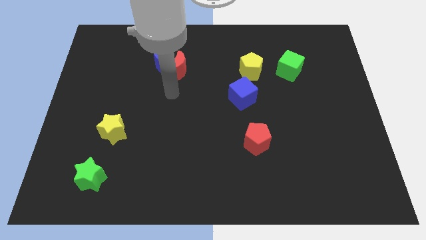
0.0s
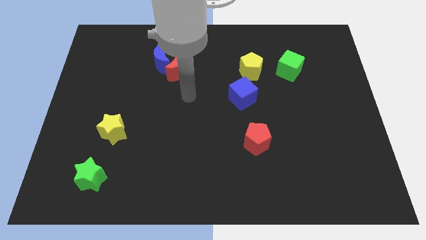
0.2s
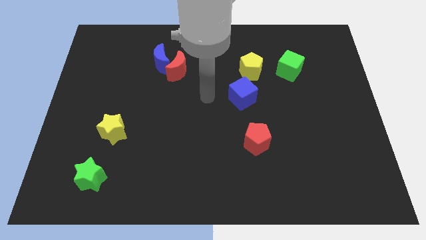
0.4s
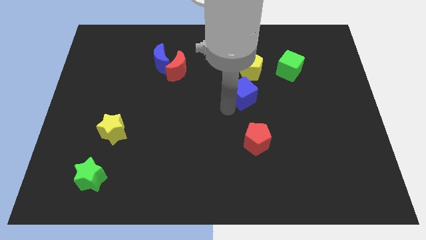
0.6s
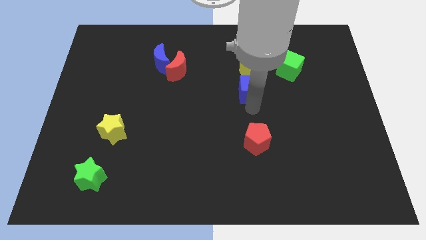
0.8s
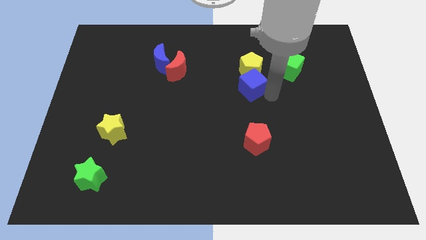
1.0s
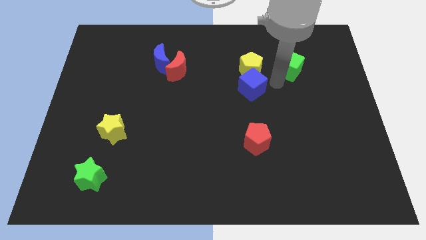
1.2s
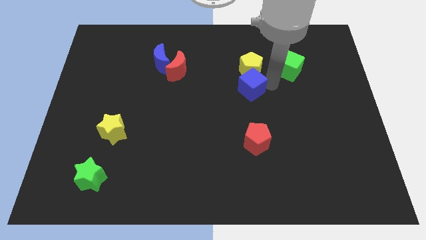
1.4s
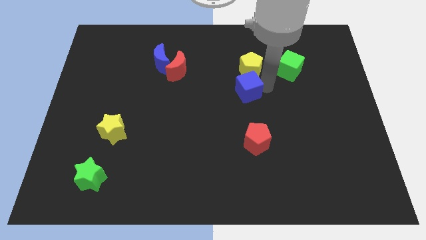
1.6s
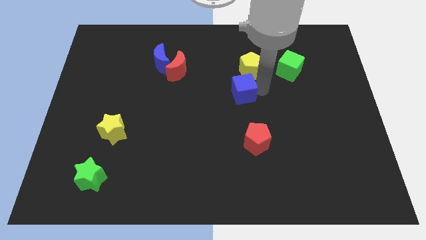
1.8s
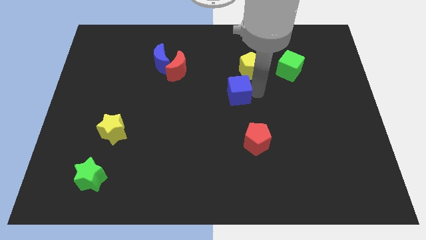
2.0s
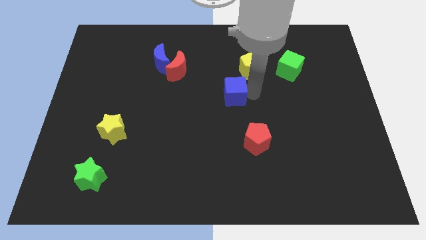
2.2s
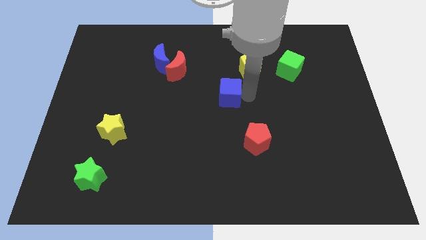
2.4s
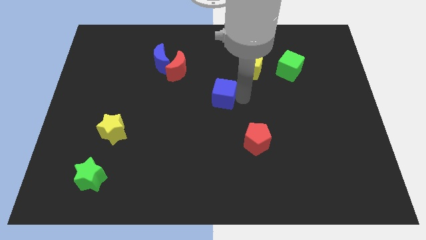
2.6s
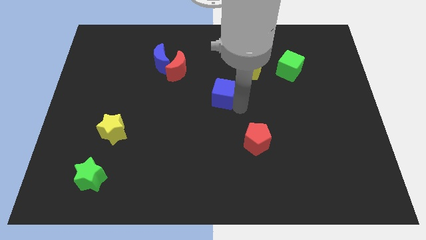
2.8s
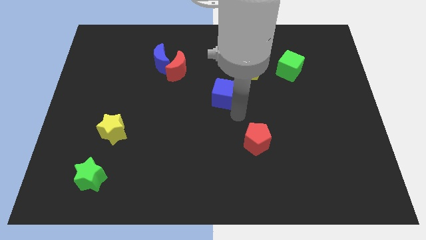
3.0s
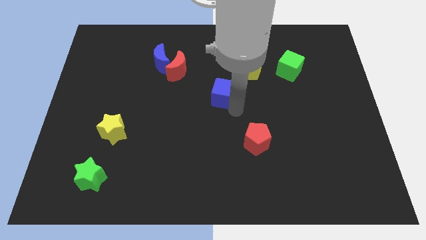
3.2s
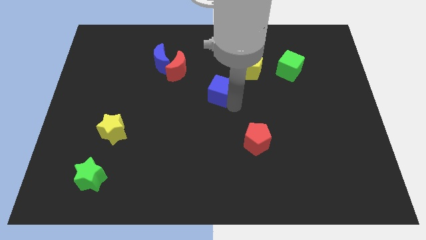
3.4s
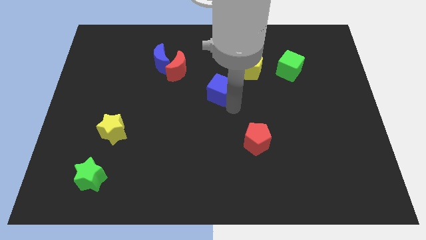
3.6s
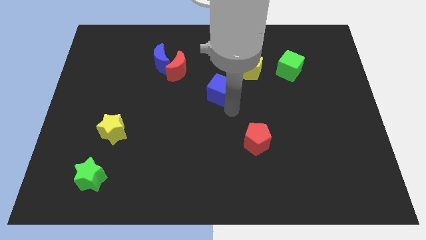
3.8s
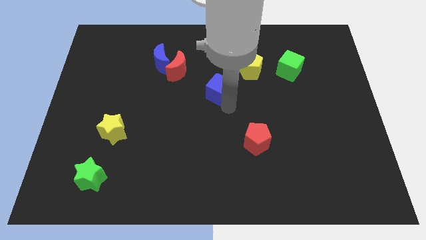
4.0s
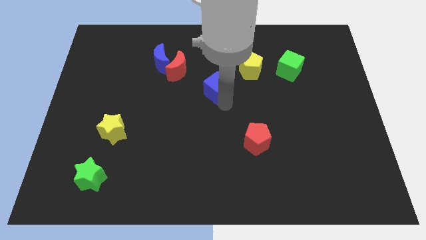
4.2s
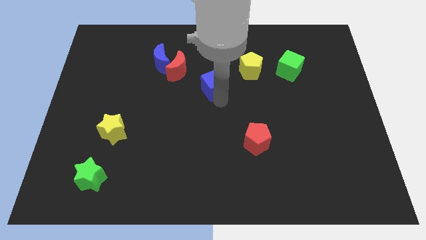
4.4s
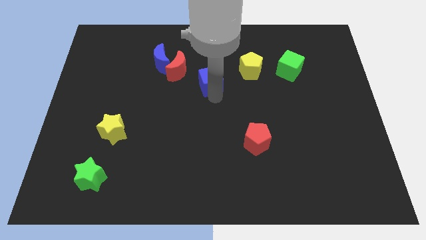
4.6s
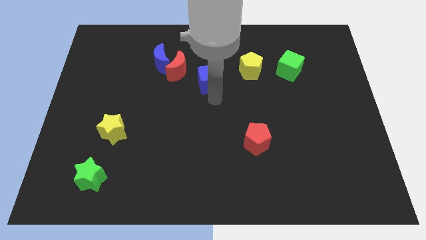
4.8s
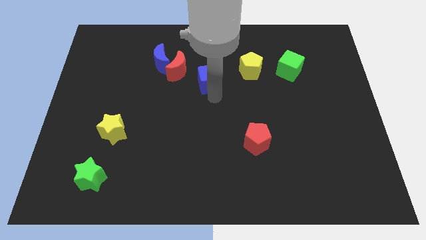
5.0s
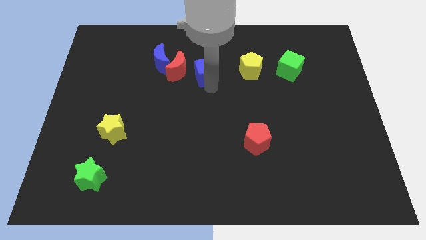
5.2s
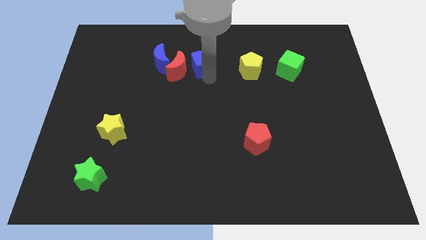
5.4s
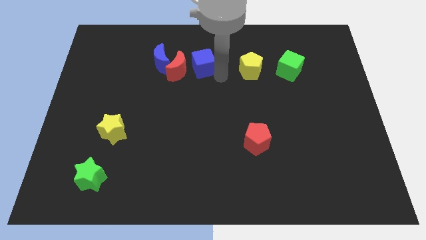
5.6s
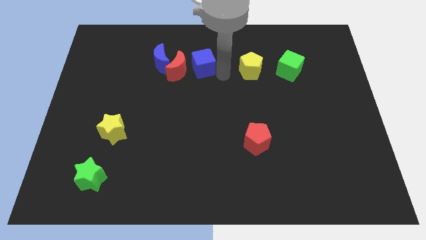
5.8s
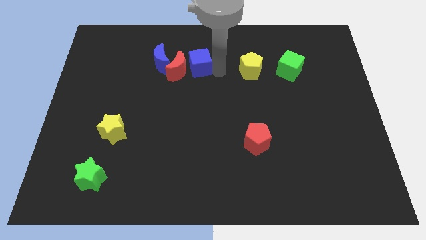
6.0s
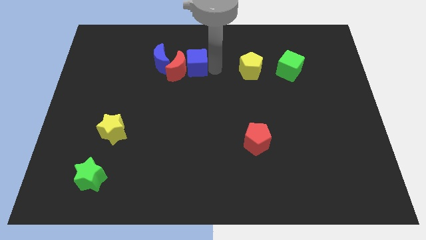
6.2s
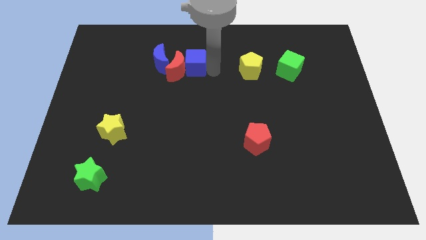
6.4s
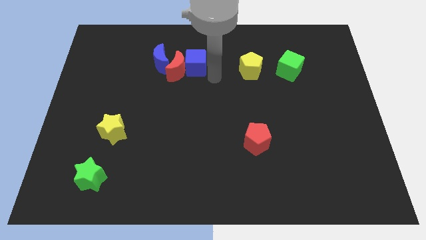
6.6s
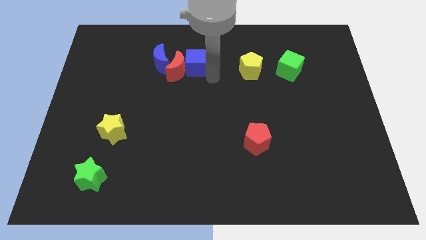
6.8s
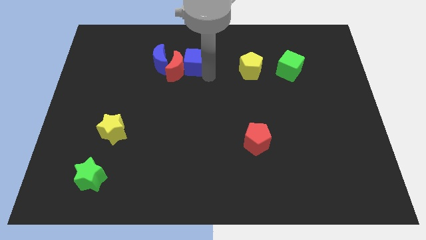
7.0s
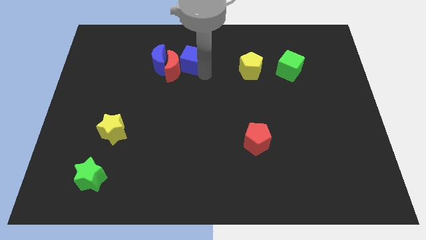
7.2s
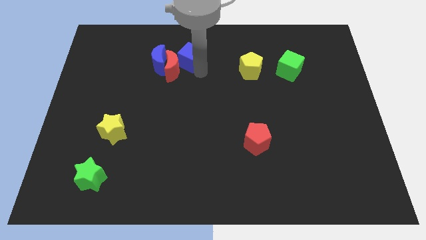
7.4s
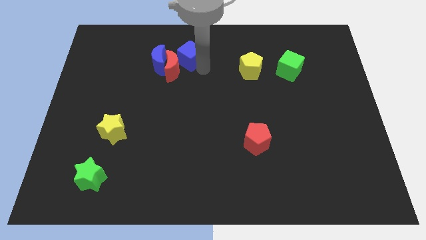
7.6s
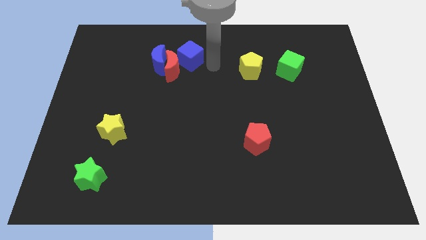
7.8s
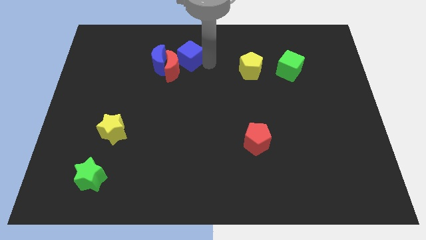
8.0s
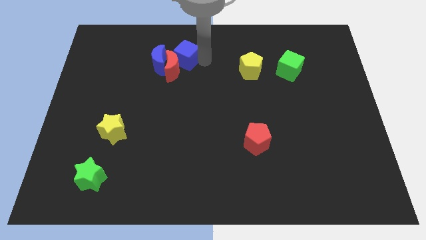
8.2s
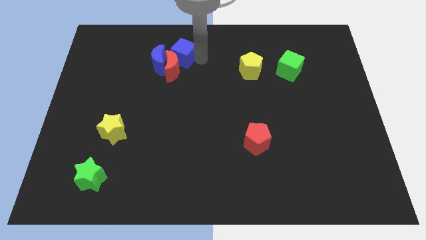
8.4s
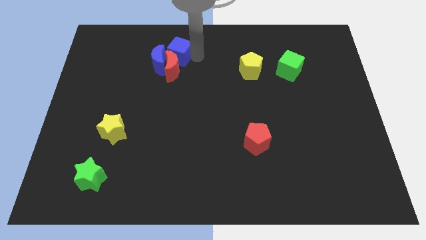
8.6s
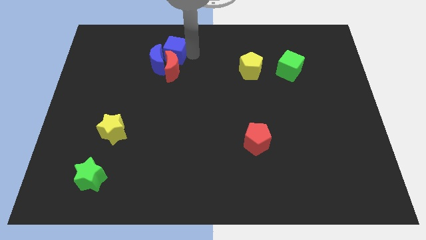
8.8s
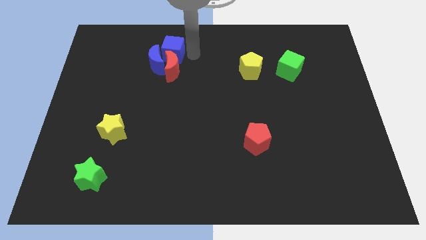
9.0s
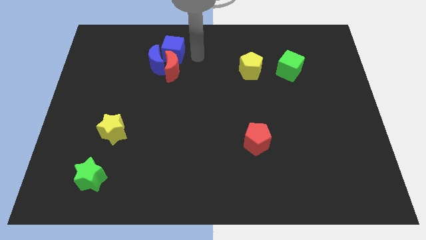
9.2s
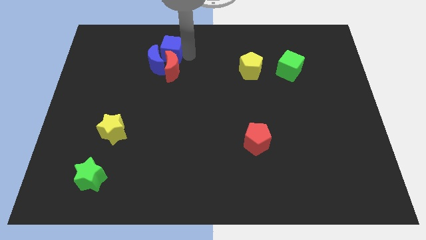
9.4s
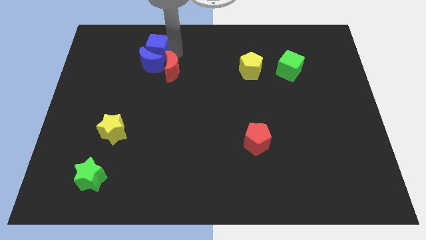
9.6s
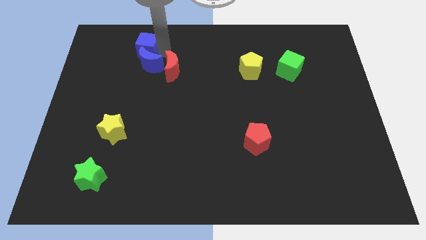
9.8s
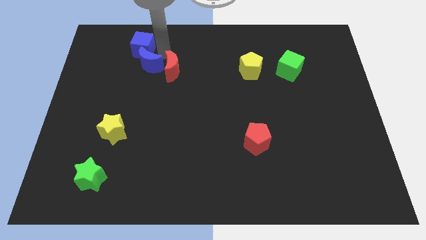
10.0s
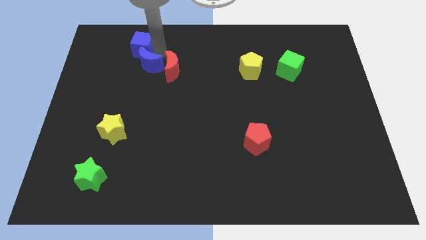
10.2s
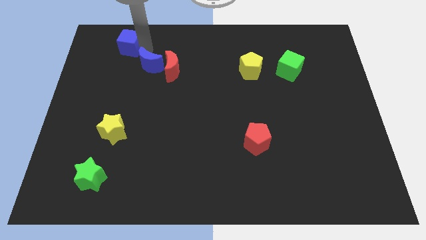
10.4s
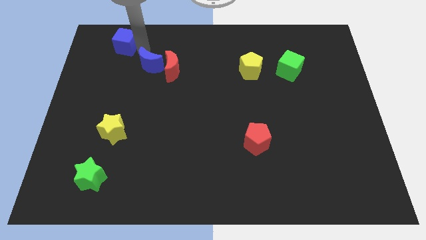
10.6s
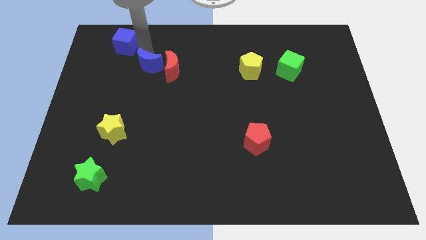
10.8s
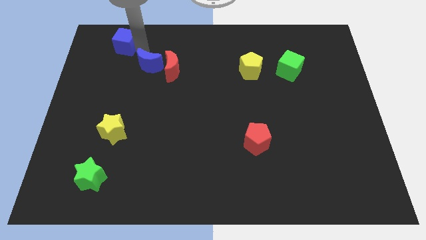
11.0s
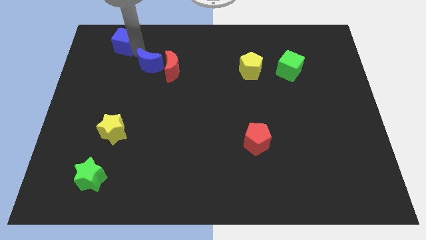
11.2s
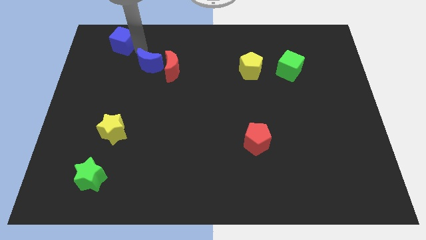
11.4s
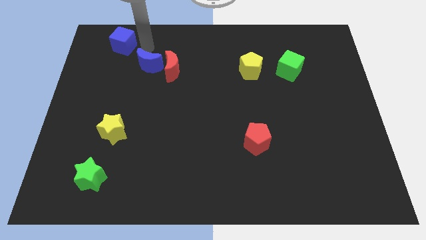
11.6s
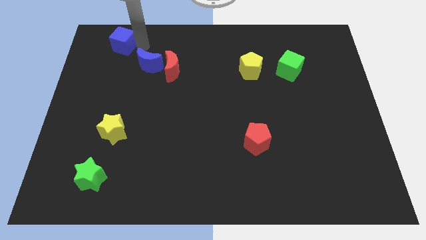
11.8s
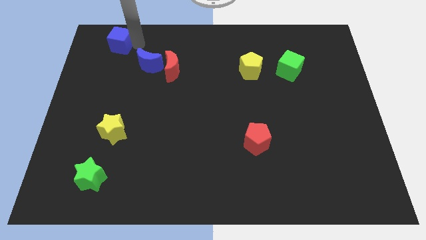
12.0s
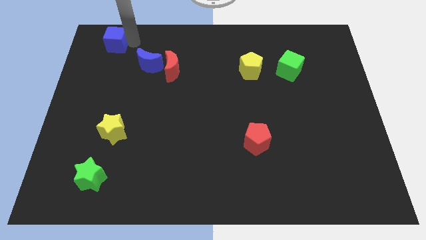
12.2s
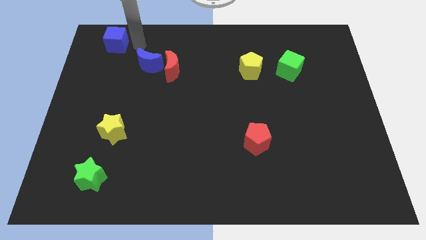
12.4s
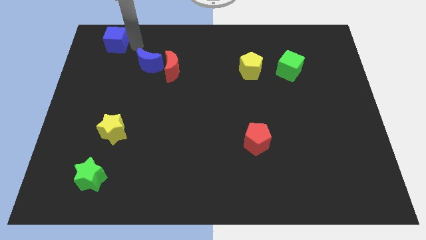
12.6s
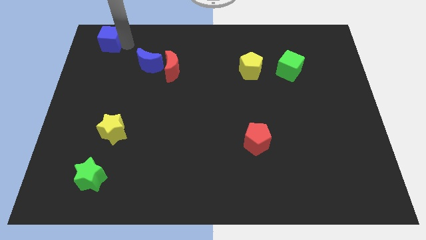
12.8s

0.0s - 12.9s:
push the blue cube to the top left corner
